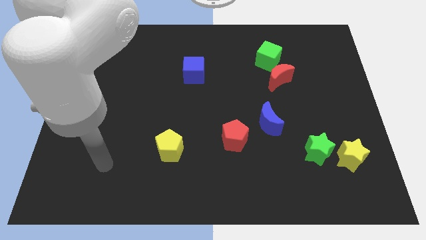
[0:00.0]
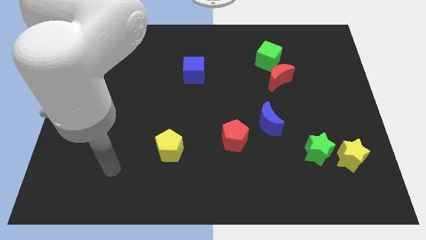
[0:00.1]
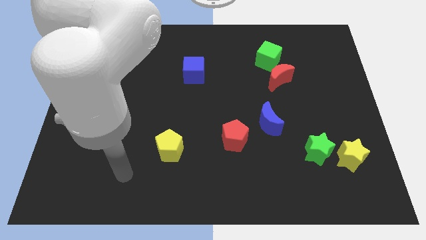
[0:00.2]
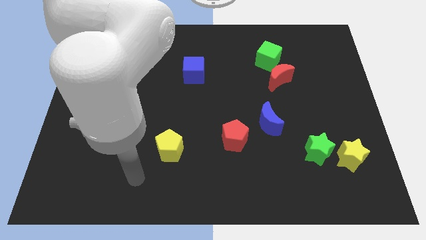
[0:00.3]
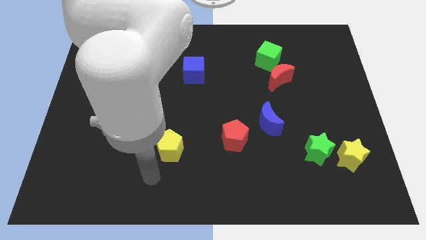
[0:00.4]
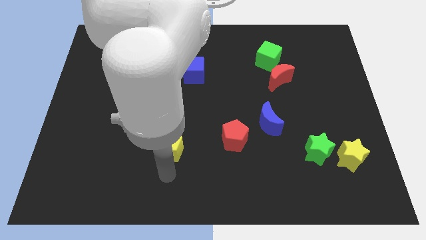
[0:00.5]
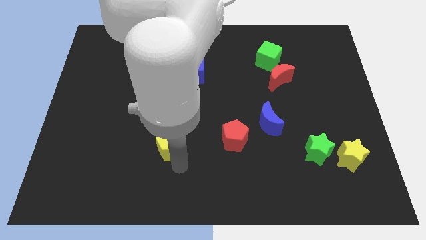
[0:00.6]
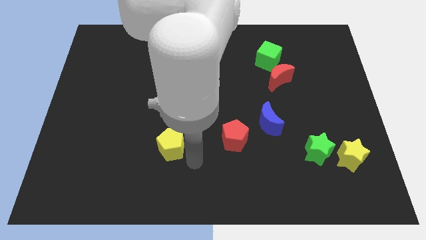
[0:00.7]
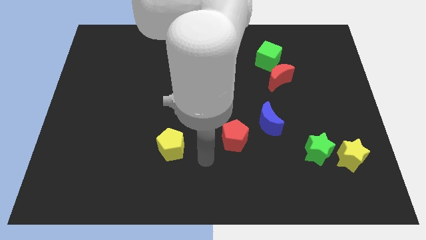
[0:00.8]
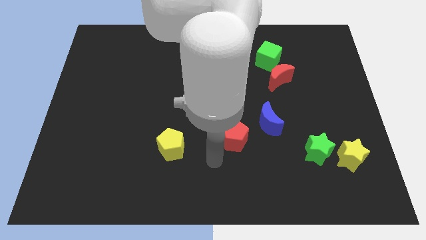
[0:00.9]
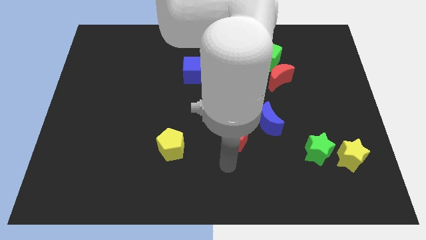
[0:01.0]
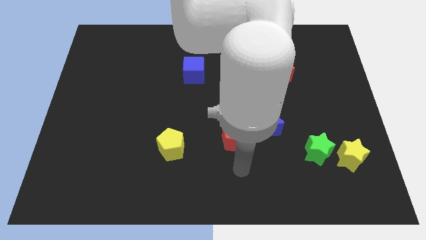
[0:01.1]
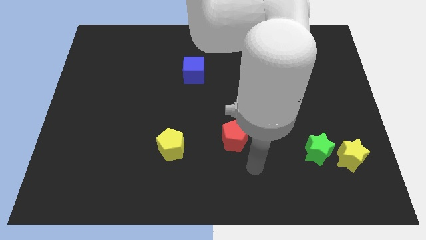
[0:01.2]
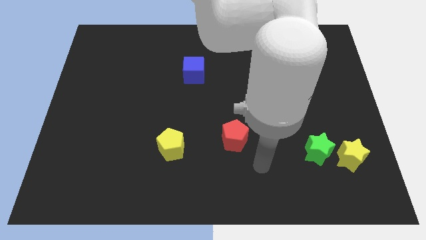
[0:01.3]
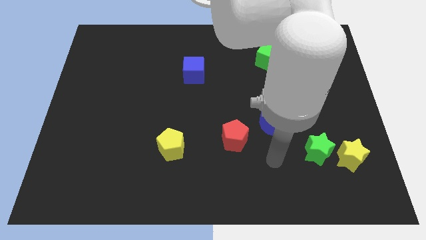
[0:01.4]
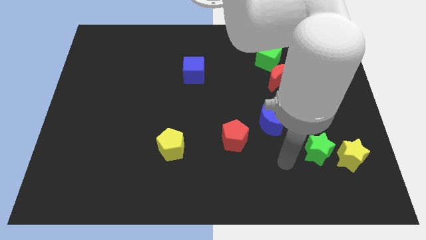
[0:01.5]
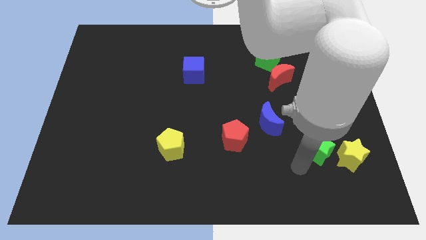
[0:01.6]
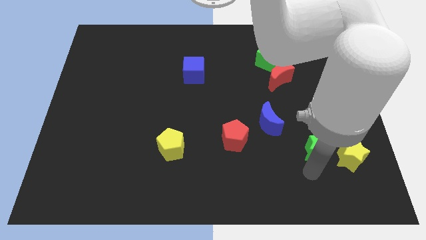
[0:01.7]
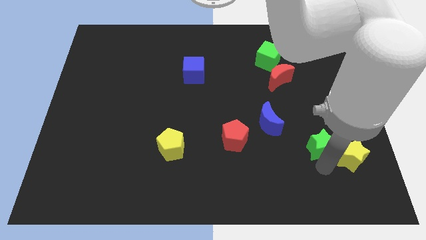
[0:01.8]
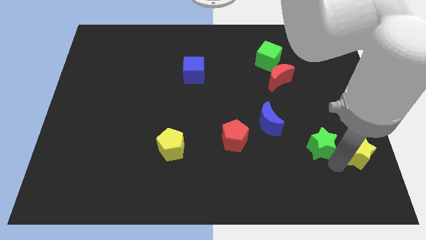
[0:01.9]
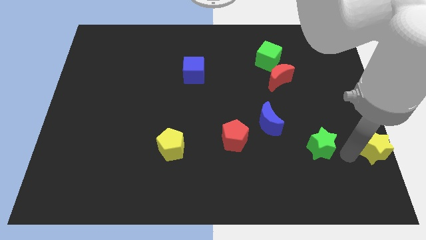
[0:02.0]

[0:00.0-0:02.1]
move the green star away from the yellow star

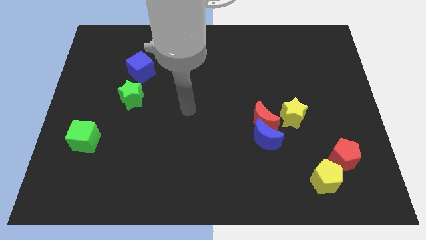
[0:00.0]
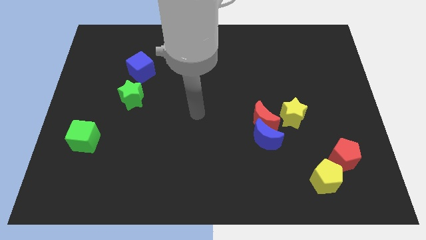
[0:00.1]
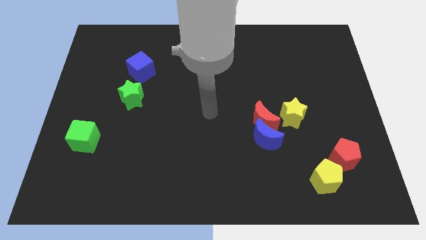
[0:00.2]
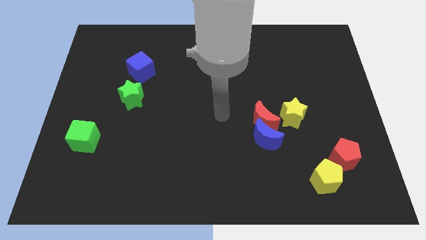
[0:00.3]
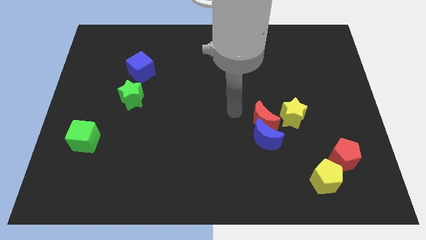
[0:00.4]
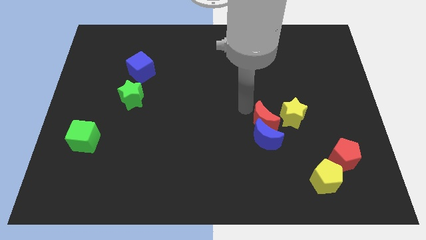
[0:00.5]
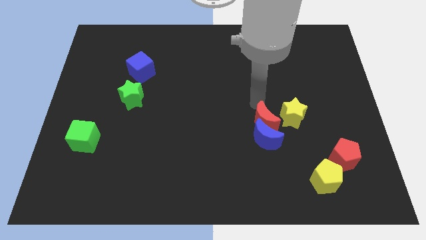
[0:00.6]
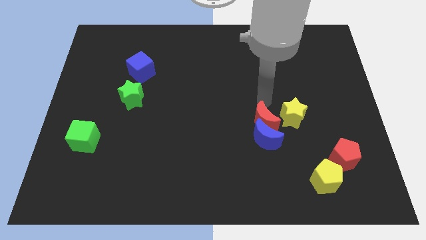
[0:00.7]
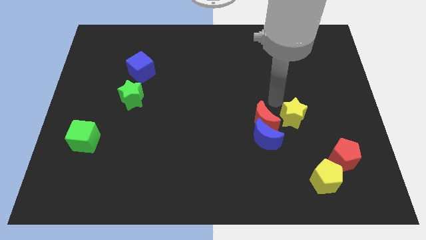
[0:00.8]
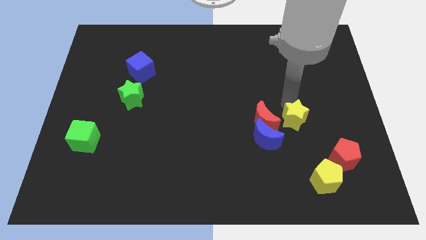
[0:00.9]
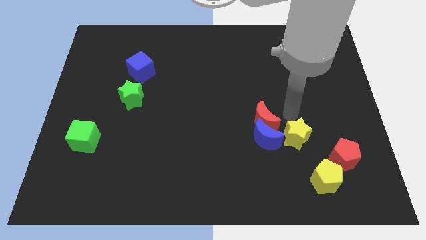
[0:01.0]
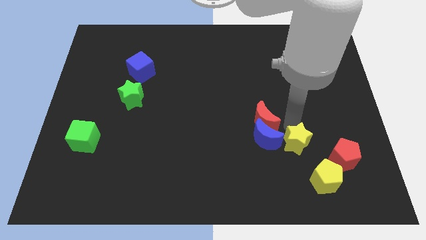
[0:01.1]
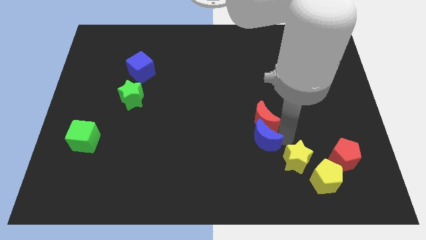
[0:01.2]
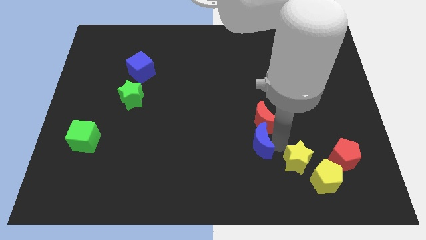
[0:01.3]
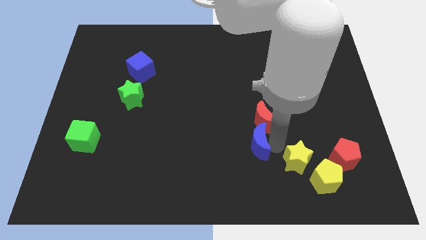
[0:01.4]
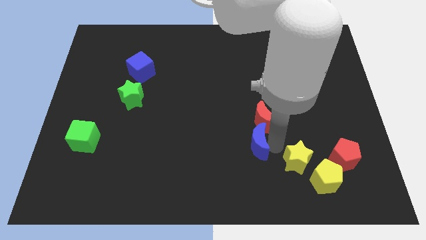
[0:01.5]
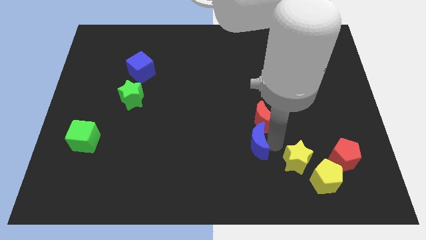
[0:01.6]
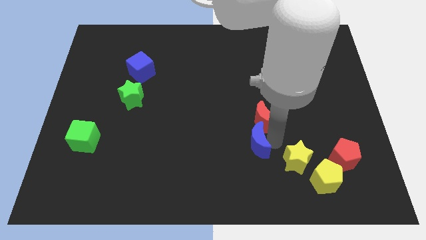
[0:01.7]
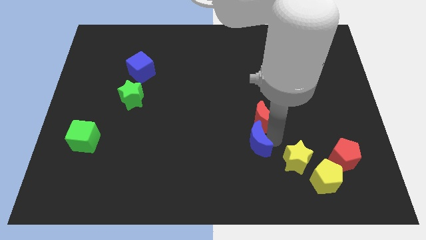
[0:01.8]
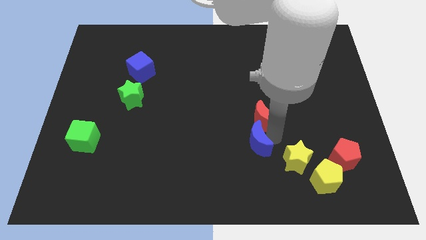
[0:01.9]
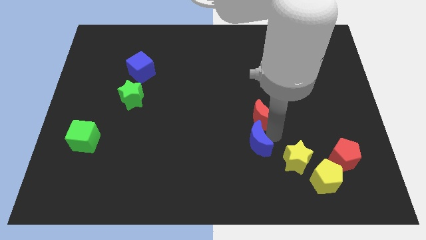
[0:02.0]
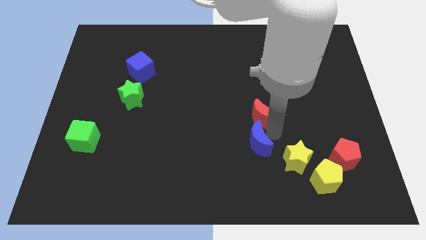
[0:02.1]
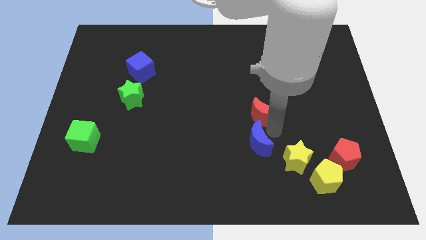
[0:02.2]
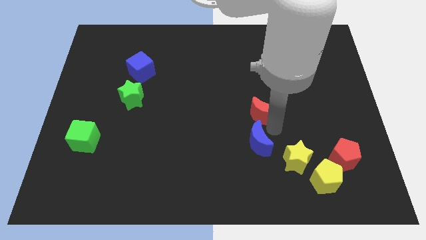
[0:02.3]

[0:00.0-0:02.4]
move the red moon away from the blue moon and yellow star

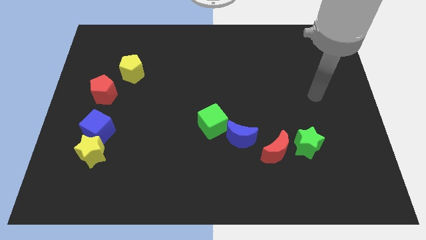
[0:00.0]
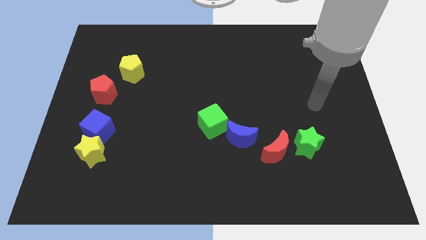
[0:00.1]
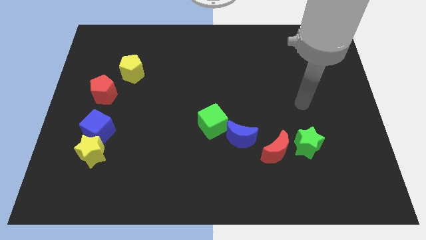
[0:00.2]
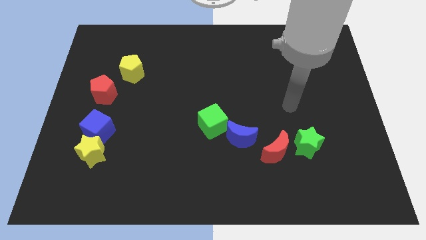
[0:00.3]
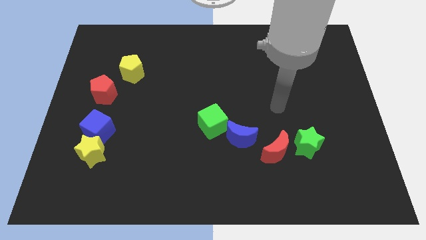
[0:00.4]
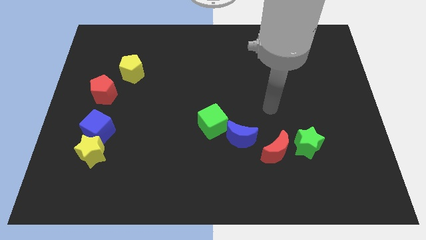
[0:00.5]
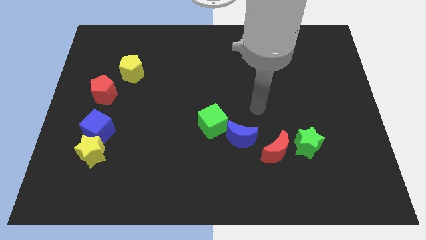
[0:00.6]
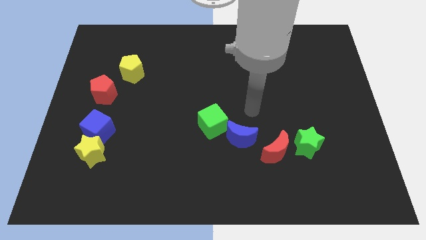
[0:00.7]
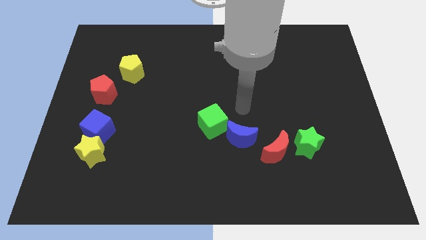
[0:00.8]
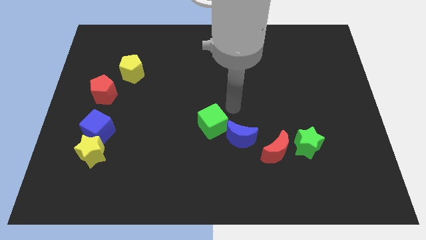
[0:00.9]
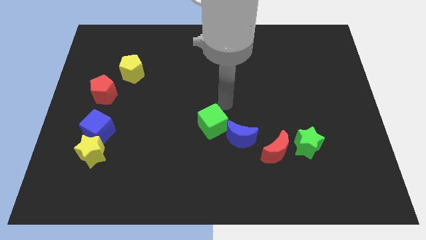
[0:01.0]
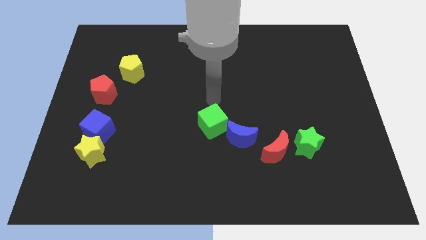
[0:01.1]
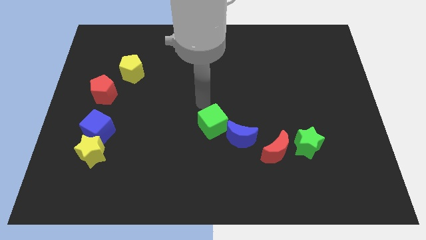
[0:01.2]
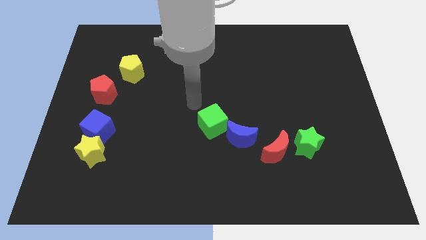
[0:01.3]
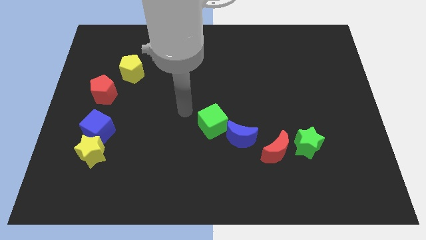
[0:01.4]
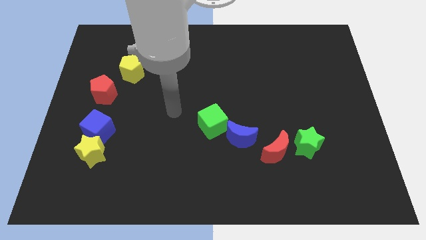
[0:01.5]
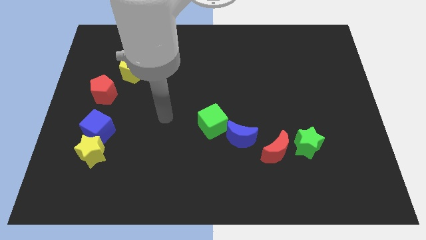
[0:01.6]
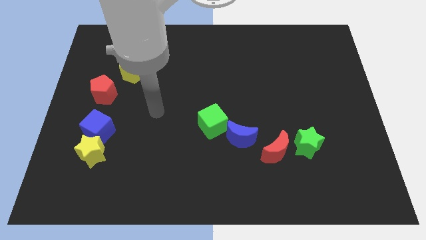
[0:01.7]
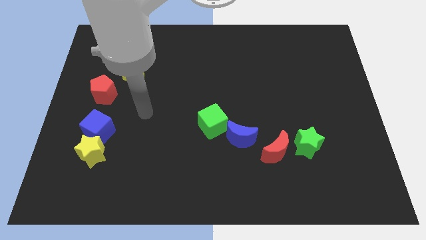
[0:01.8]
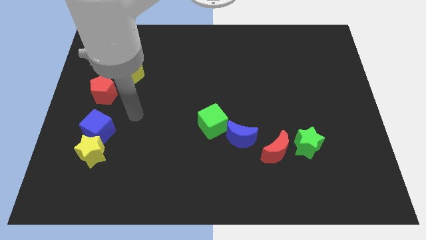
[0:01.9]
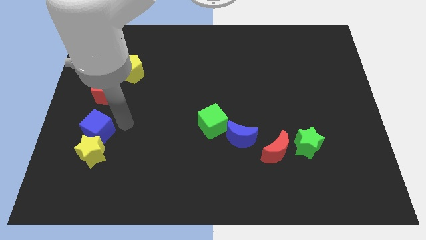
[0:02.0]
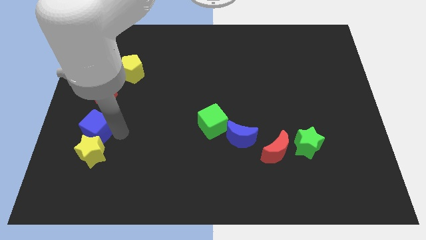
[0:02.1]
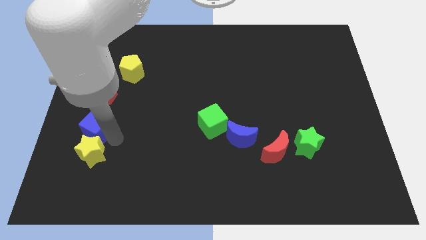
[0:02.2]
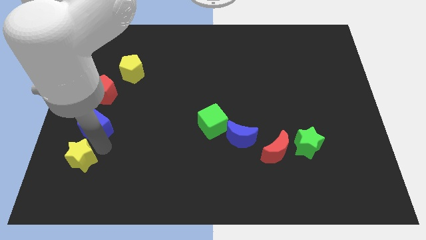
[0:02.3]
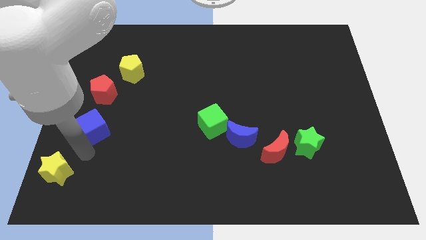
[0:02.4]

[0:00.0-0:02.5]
move the blue cube away from the yellow star

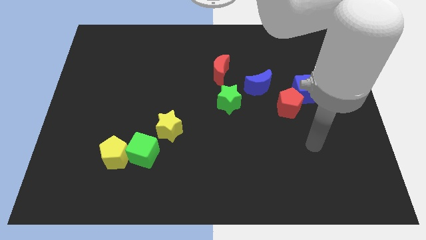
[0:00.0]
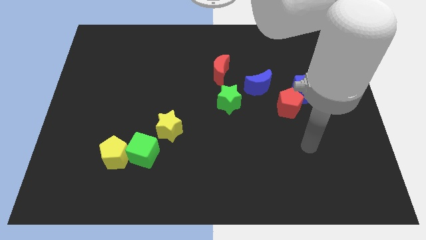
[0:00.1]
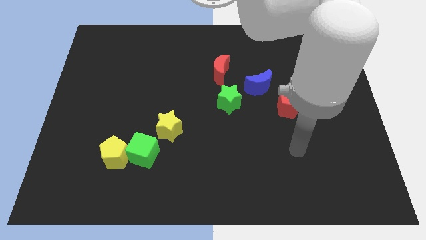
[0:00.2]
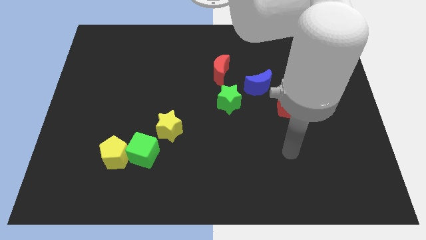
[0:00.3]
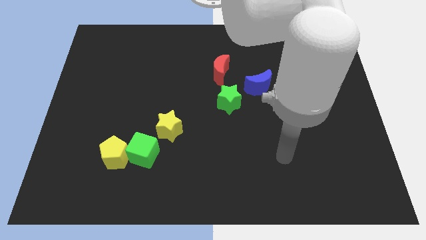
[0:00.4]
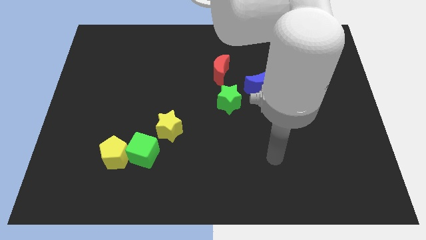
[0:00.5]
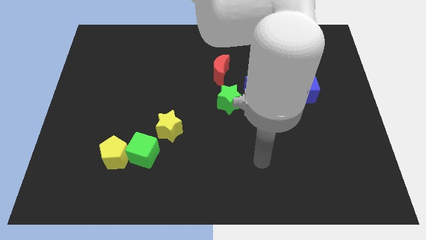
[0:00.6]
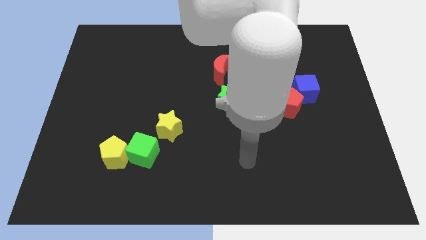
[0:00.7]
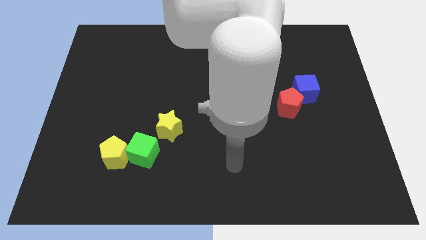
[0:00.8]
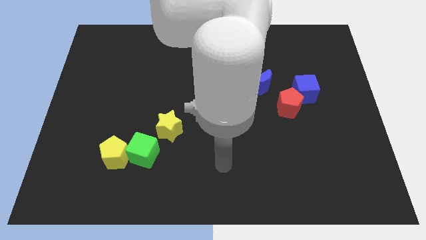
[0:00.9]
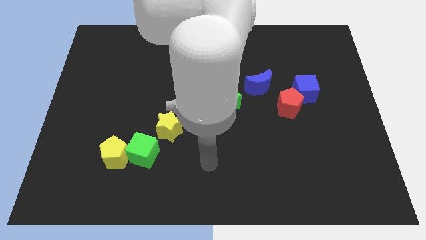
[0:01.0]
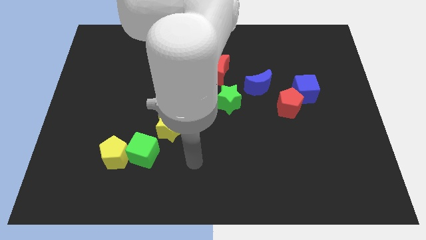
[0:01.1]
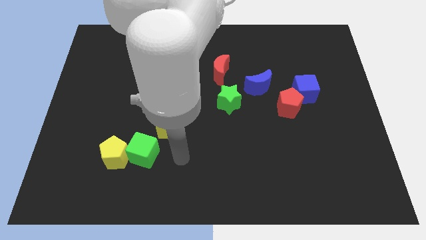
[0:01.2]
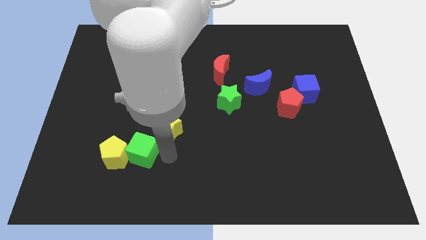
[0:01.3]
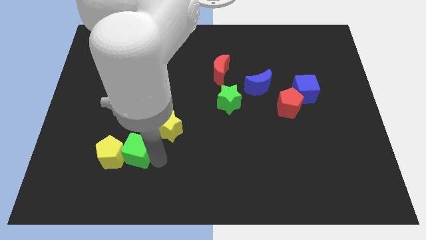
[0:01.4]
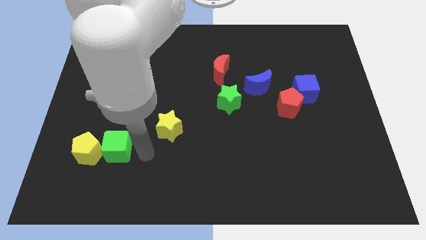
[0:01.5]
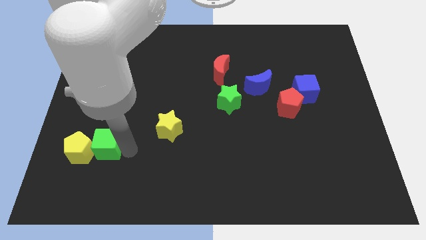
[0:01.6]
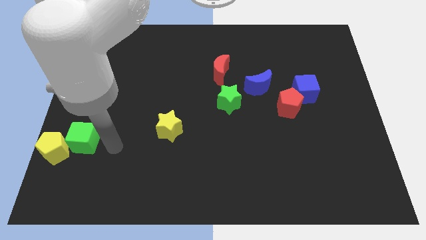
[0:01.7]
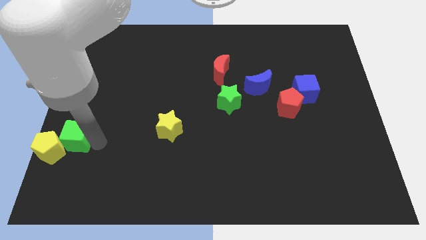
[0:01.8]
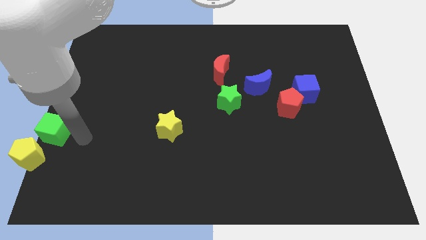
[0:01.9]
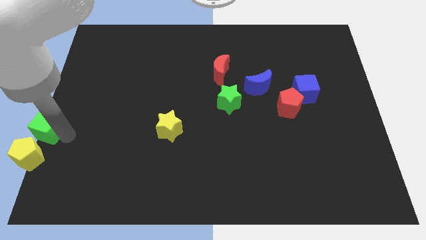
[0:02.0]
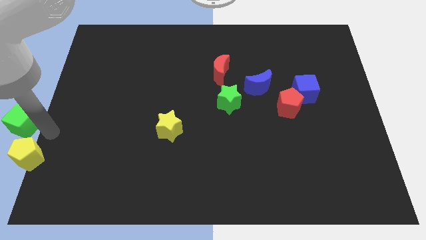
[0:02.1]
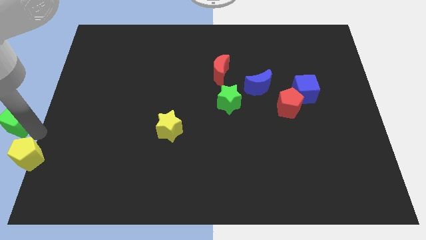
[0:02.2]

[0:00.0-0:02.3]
move the yellow pentagon away from the green cube

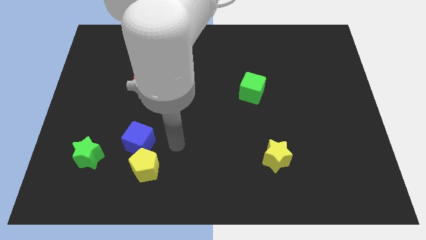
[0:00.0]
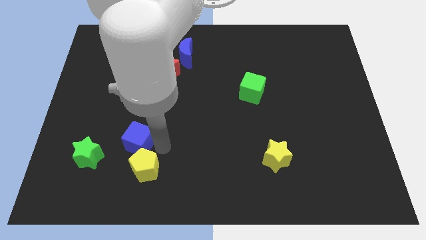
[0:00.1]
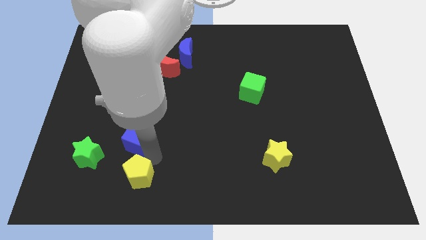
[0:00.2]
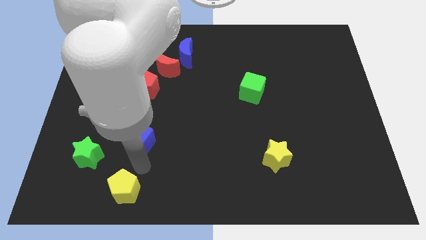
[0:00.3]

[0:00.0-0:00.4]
pull the blue cube apart from the yellow pentagon
